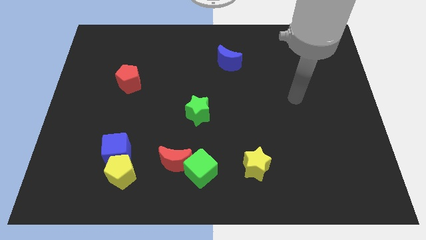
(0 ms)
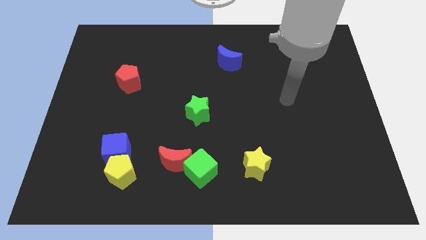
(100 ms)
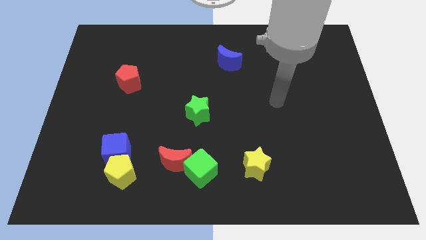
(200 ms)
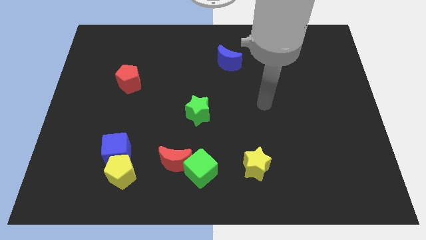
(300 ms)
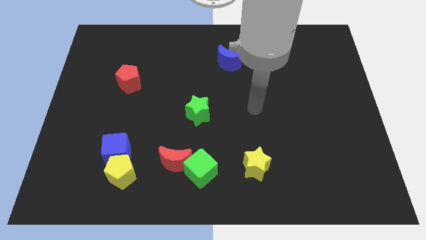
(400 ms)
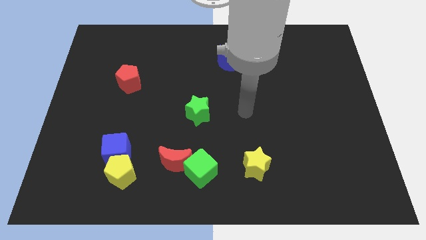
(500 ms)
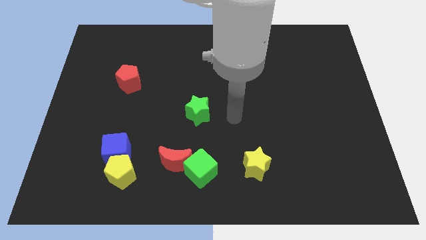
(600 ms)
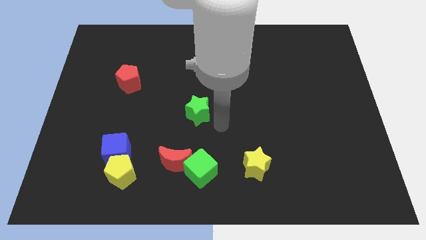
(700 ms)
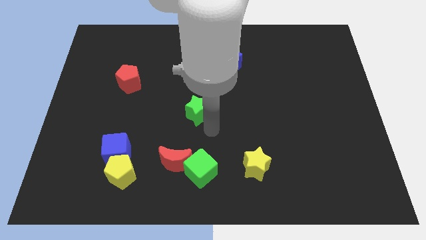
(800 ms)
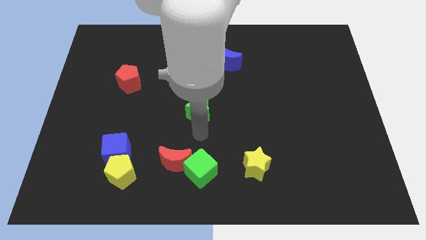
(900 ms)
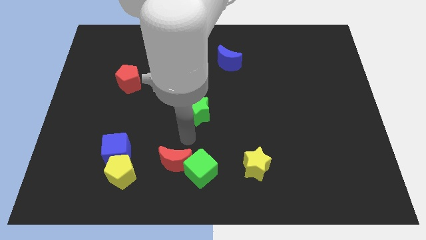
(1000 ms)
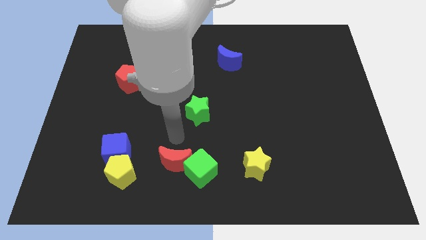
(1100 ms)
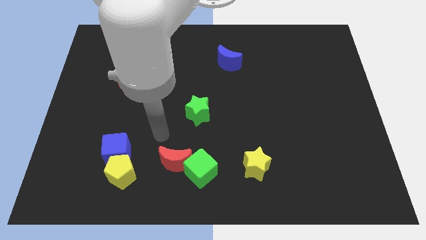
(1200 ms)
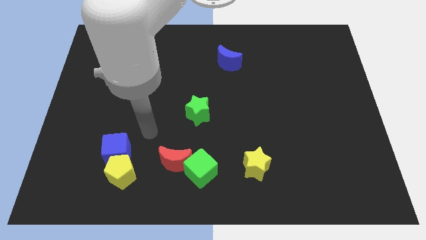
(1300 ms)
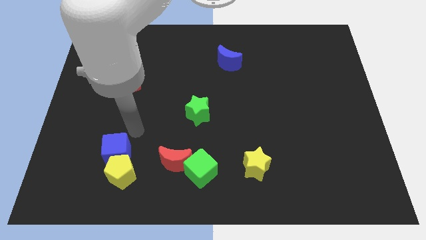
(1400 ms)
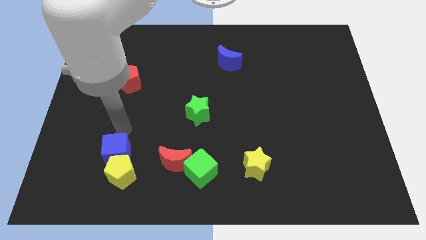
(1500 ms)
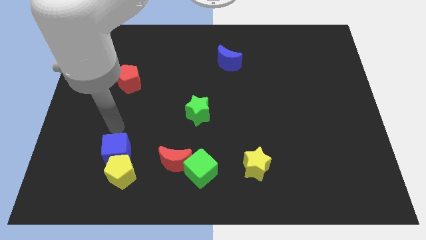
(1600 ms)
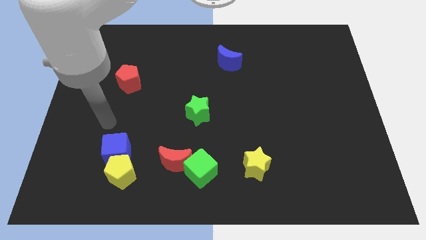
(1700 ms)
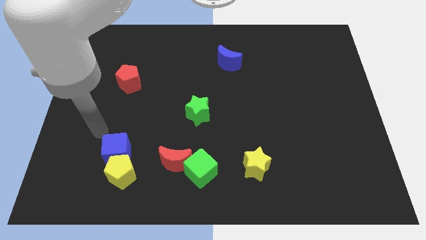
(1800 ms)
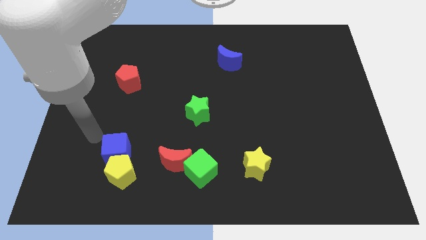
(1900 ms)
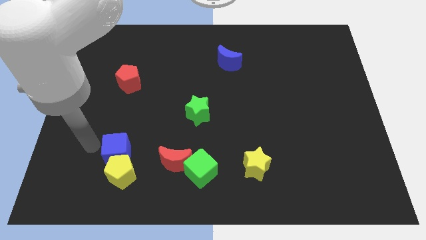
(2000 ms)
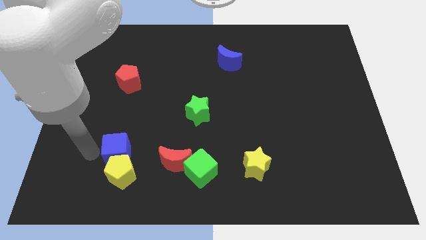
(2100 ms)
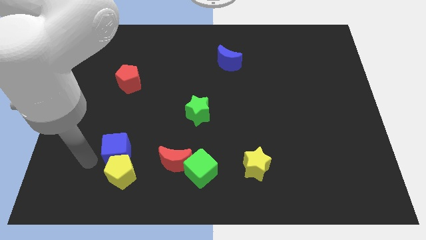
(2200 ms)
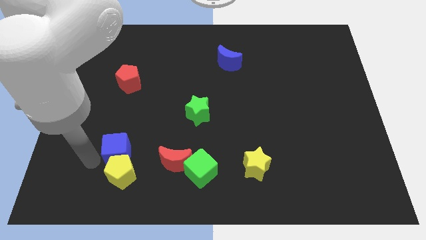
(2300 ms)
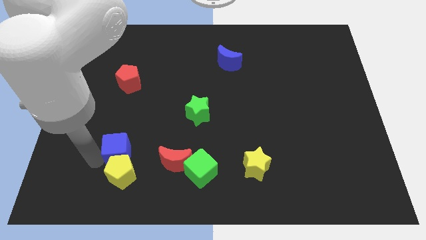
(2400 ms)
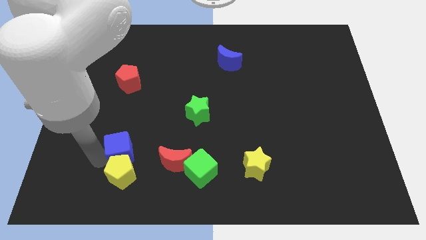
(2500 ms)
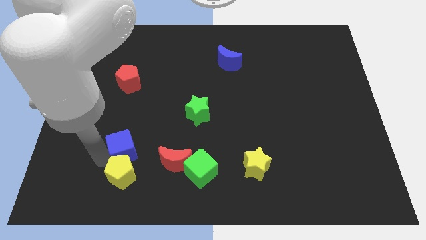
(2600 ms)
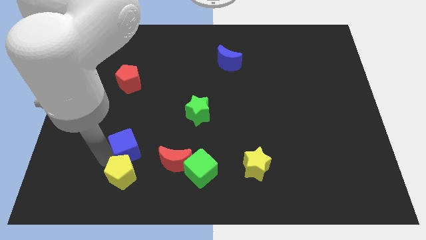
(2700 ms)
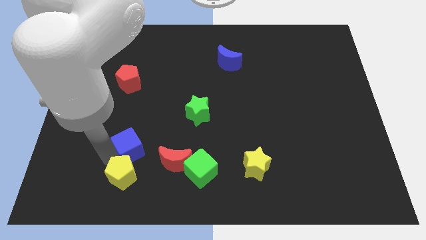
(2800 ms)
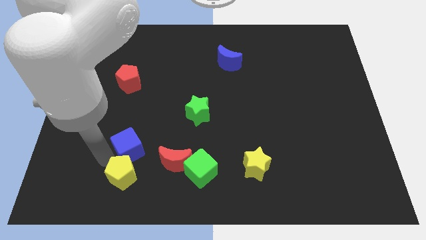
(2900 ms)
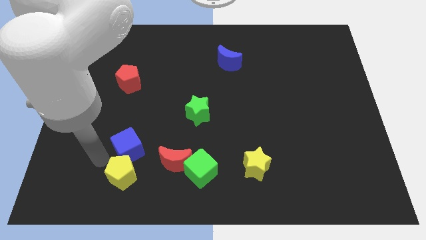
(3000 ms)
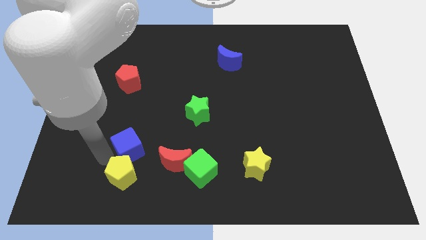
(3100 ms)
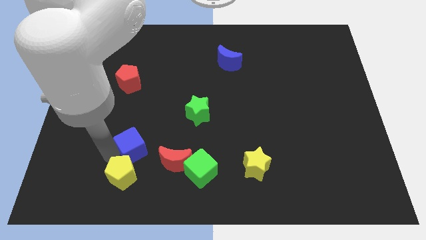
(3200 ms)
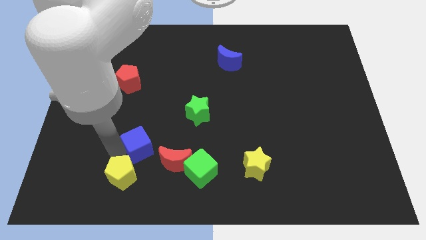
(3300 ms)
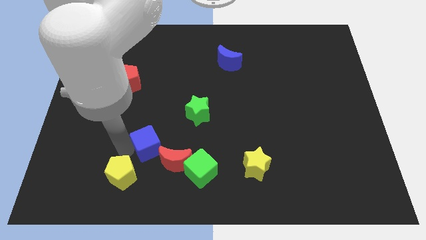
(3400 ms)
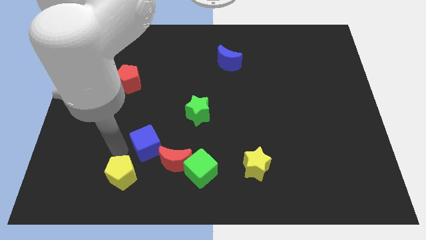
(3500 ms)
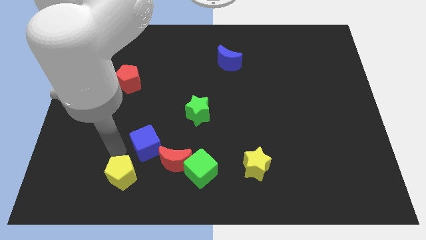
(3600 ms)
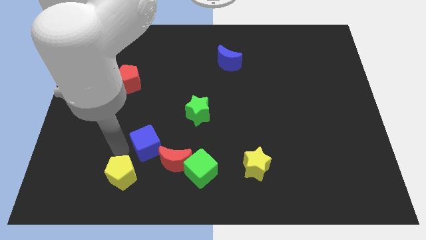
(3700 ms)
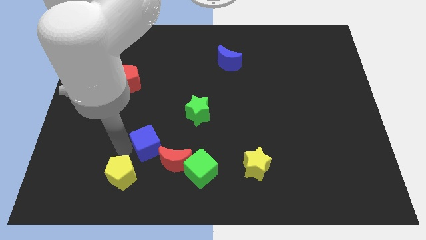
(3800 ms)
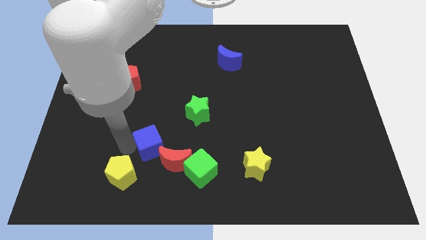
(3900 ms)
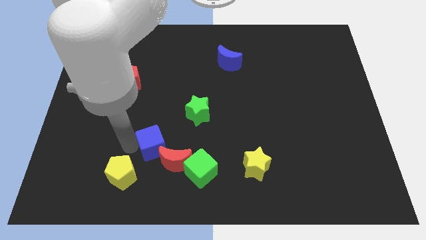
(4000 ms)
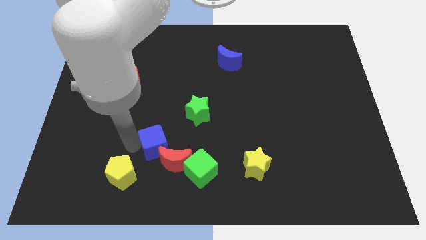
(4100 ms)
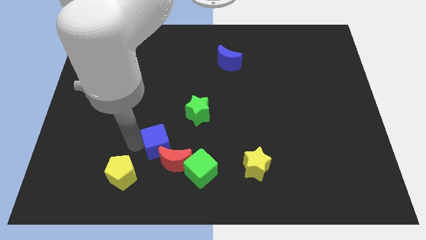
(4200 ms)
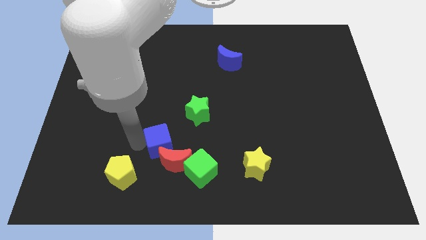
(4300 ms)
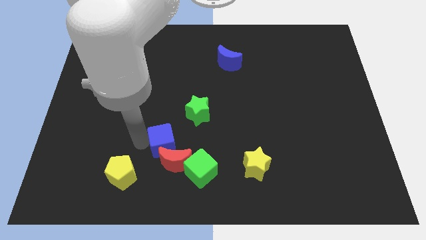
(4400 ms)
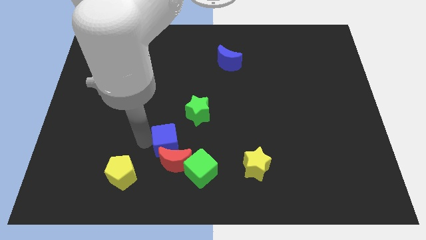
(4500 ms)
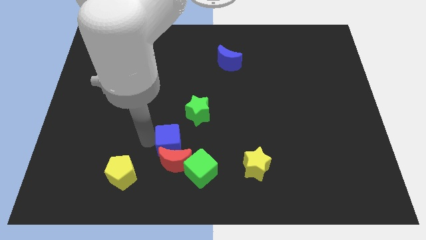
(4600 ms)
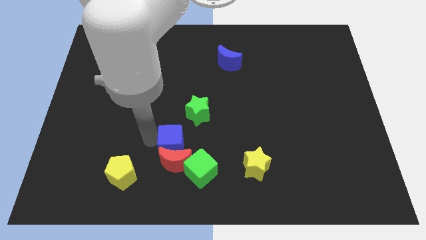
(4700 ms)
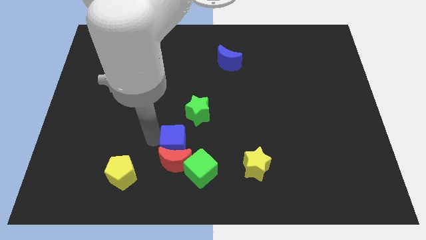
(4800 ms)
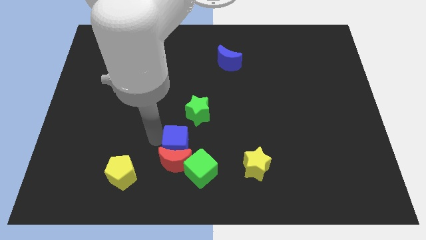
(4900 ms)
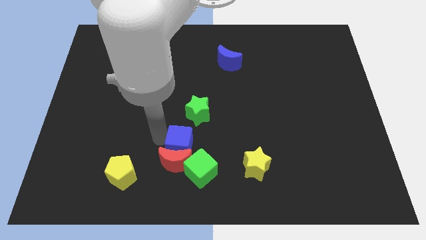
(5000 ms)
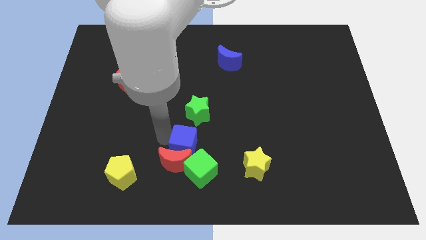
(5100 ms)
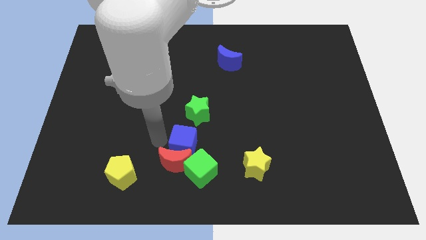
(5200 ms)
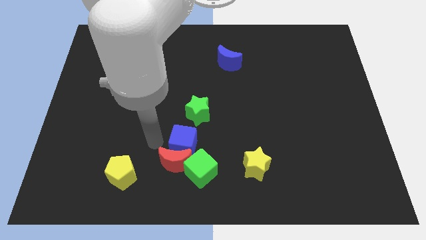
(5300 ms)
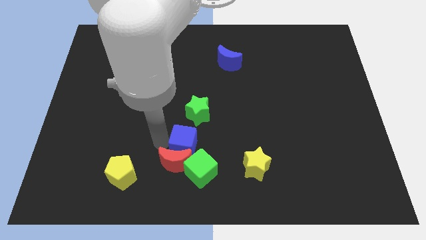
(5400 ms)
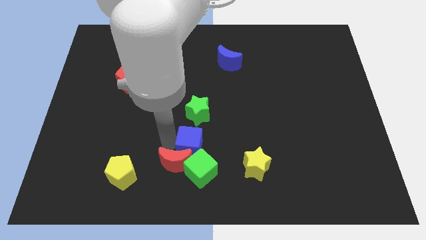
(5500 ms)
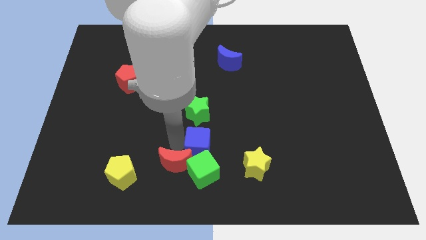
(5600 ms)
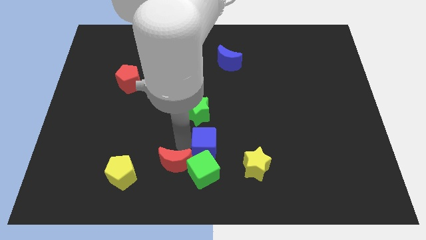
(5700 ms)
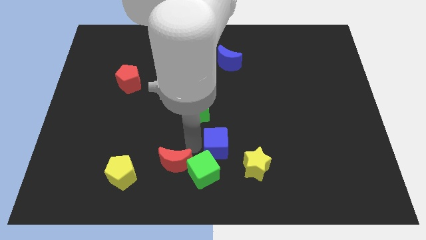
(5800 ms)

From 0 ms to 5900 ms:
move the blue cube to the right

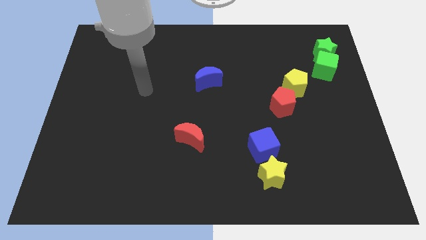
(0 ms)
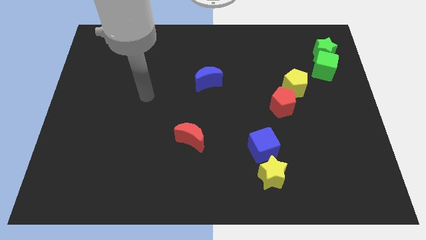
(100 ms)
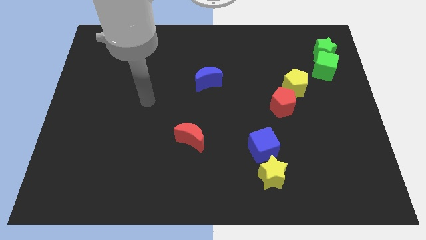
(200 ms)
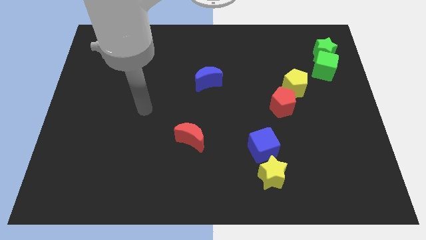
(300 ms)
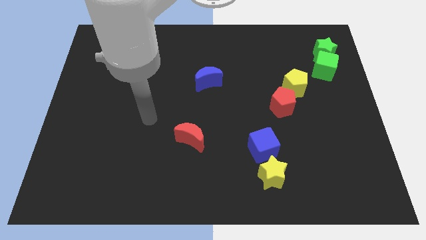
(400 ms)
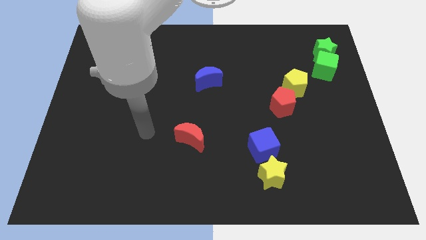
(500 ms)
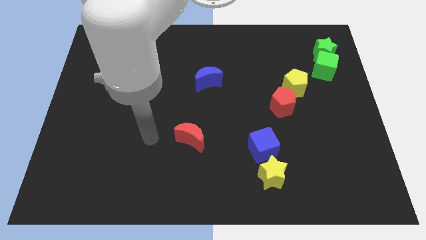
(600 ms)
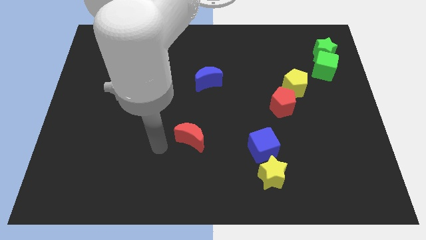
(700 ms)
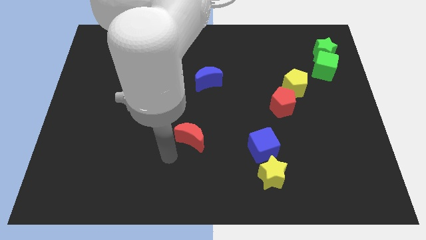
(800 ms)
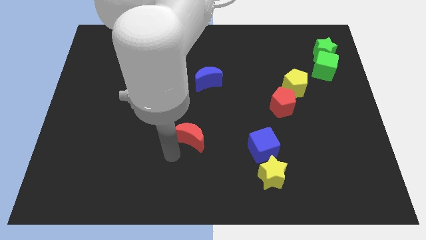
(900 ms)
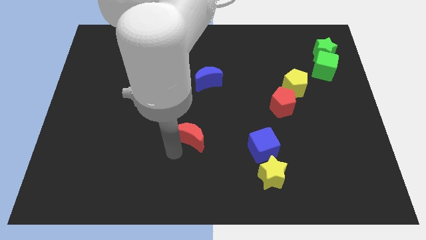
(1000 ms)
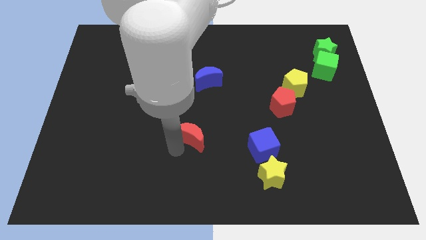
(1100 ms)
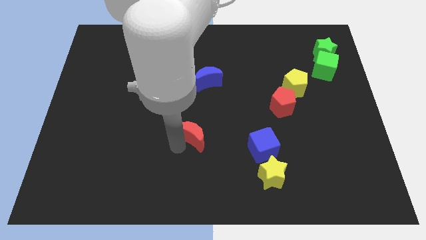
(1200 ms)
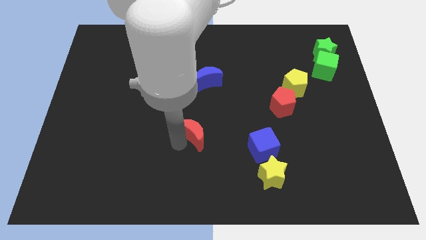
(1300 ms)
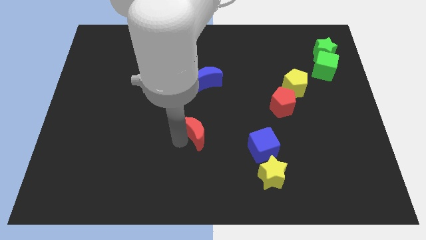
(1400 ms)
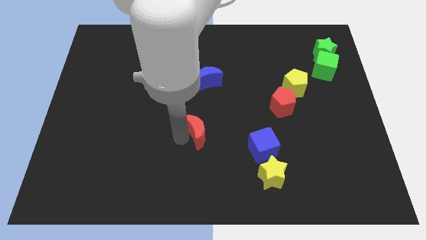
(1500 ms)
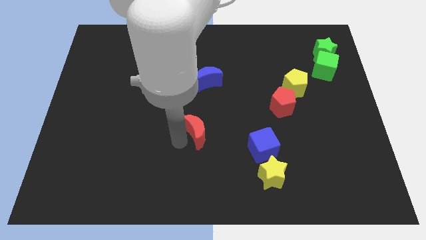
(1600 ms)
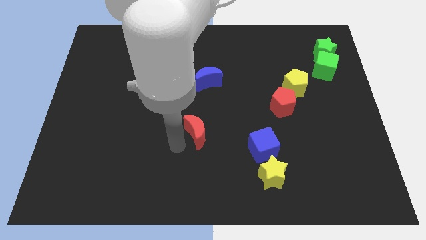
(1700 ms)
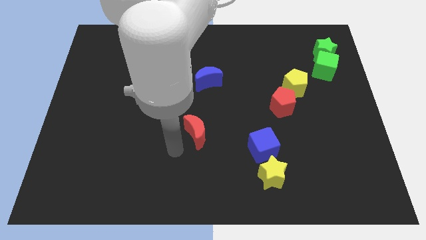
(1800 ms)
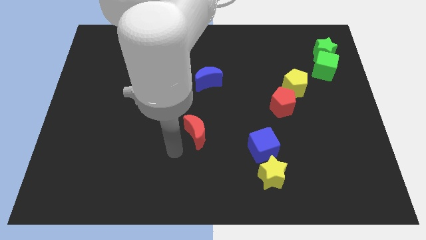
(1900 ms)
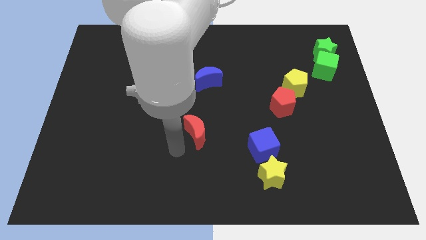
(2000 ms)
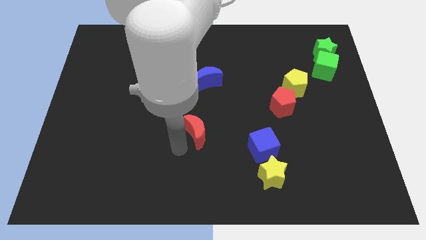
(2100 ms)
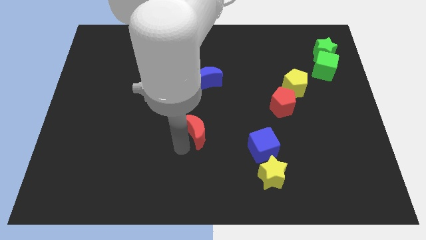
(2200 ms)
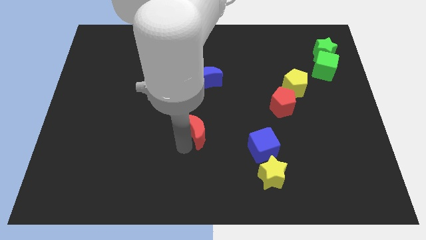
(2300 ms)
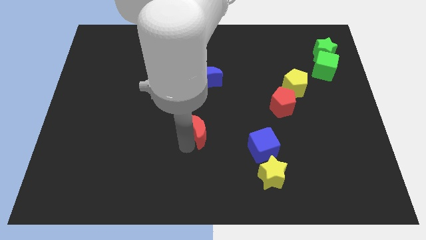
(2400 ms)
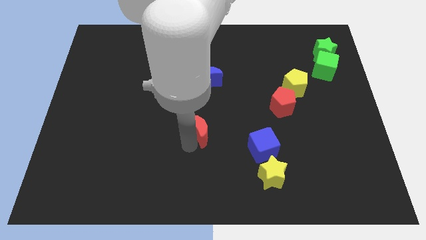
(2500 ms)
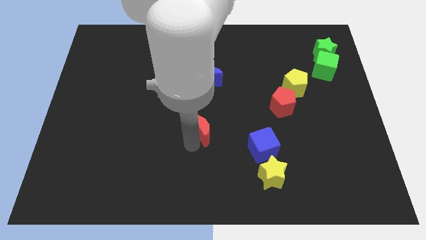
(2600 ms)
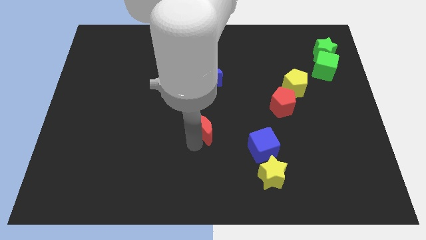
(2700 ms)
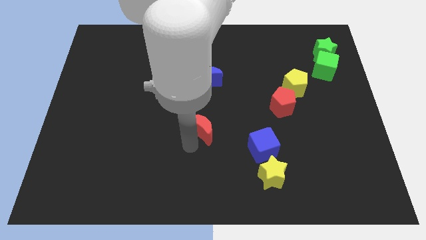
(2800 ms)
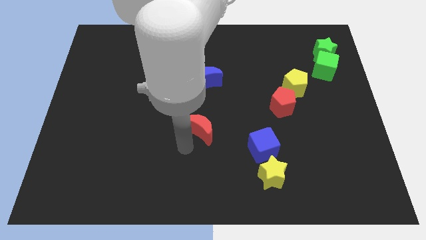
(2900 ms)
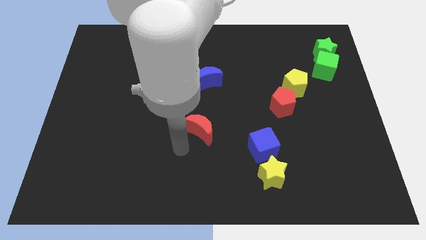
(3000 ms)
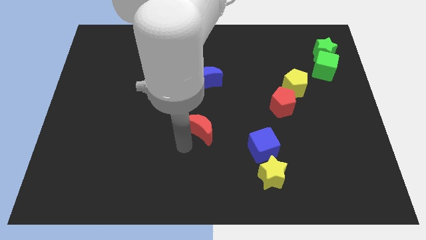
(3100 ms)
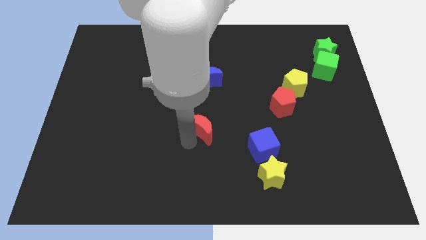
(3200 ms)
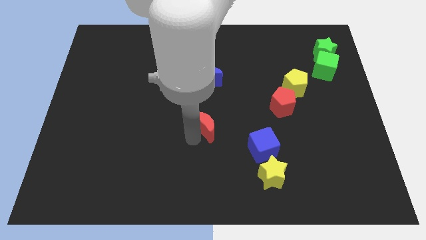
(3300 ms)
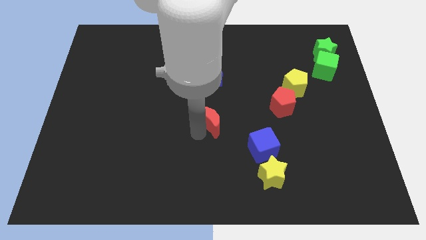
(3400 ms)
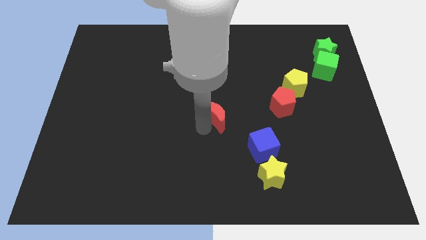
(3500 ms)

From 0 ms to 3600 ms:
move the red moon somewhat up and to the right
